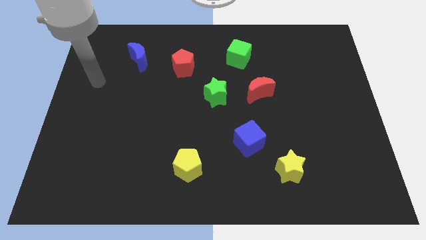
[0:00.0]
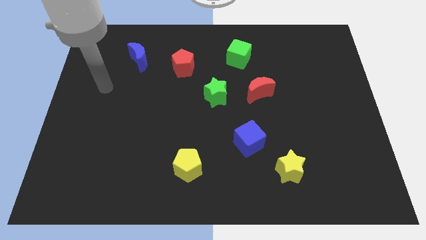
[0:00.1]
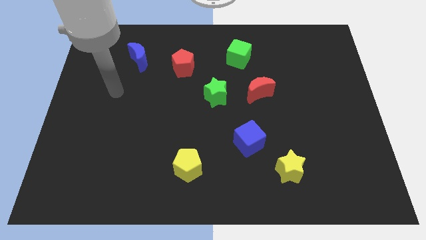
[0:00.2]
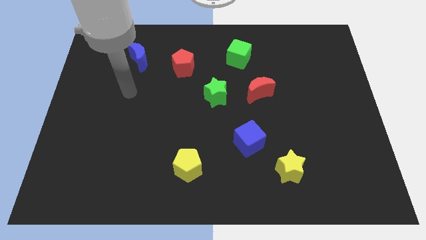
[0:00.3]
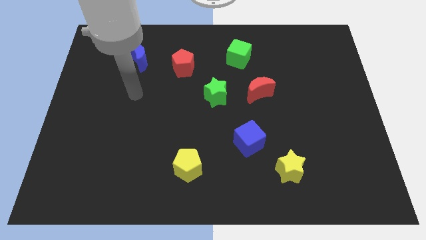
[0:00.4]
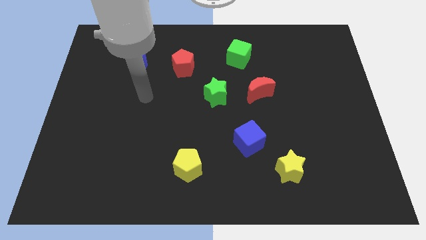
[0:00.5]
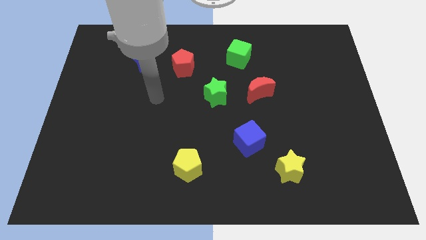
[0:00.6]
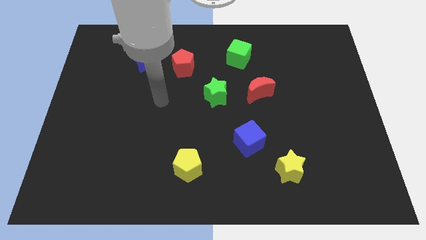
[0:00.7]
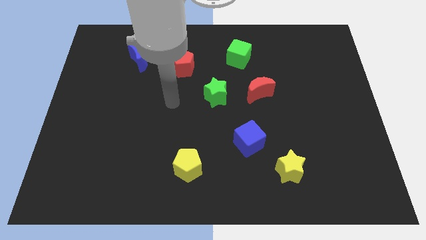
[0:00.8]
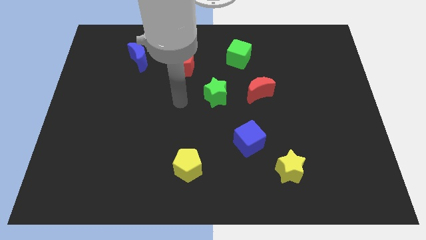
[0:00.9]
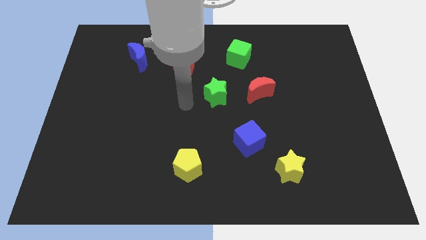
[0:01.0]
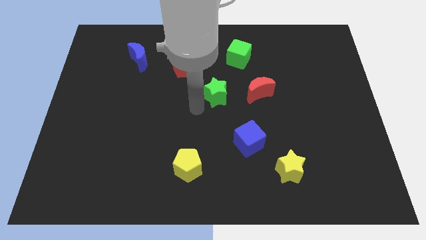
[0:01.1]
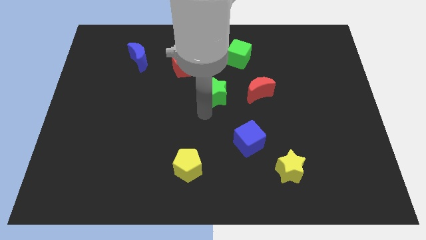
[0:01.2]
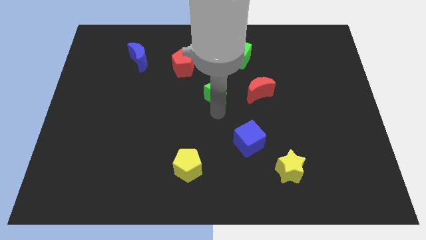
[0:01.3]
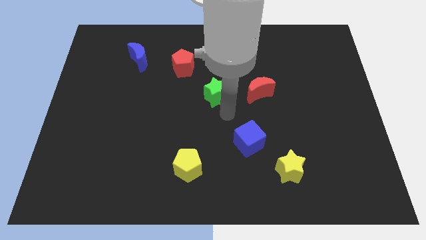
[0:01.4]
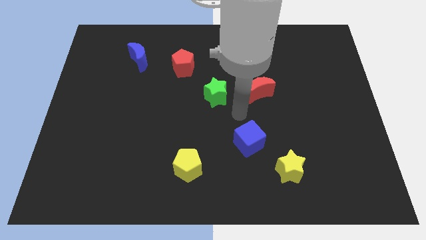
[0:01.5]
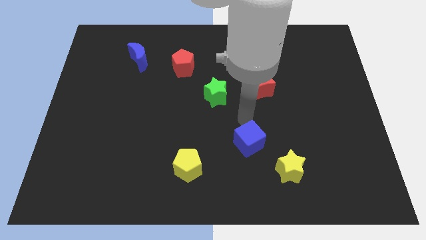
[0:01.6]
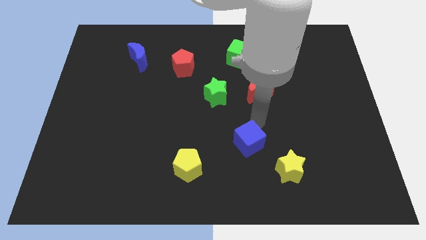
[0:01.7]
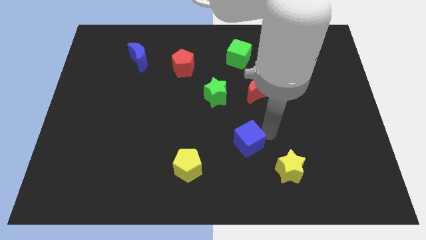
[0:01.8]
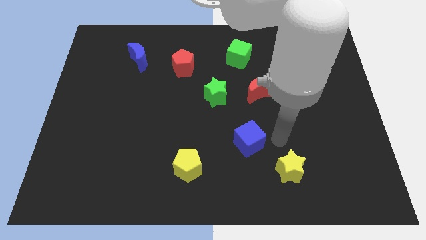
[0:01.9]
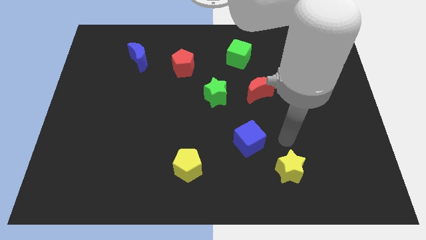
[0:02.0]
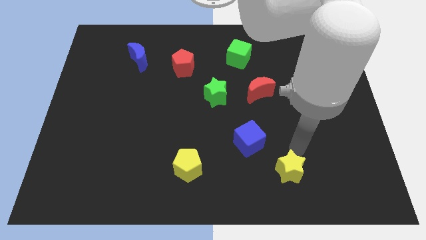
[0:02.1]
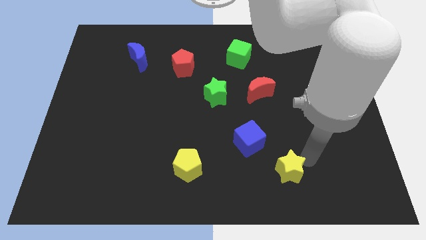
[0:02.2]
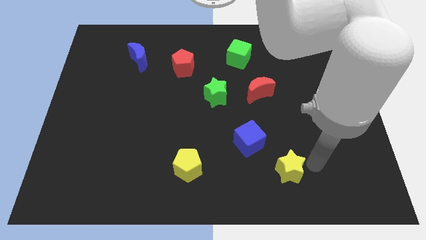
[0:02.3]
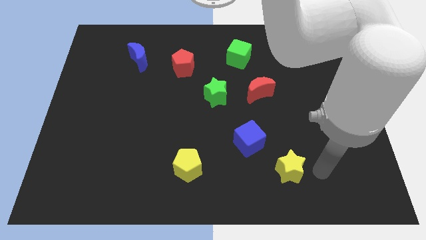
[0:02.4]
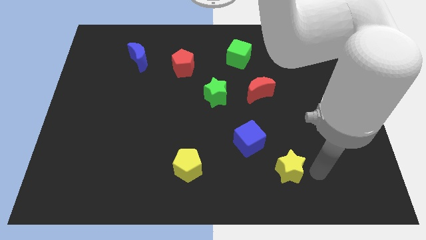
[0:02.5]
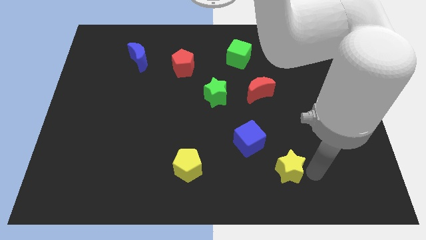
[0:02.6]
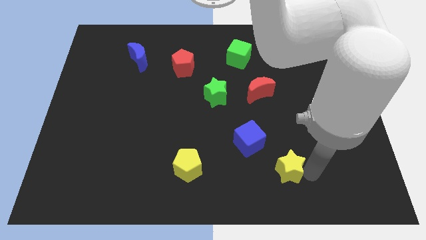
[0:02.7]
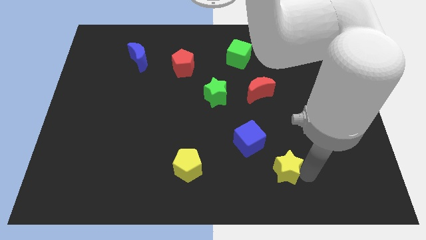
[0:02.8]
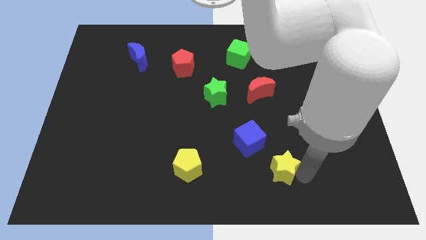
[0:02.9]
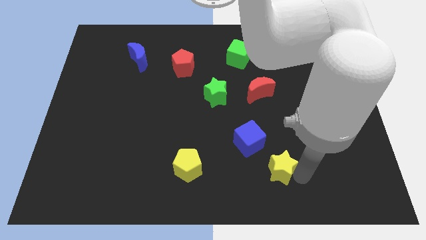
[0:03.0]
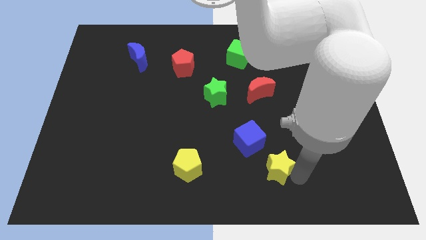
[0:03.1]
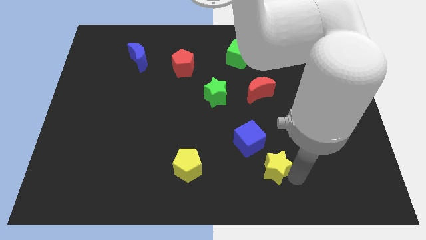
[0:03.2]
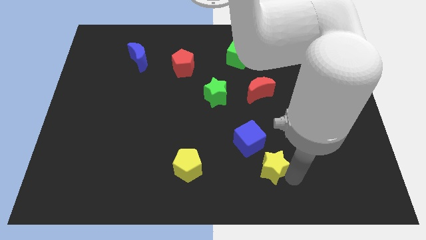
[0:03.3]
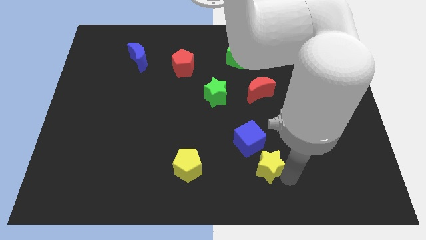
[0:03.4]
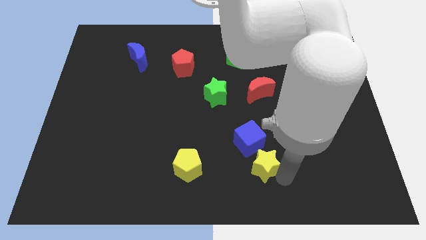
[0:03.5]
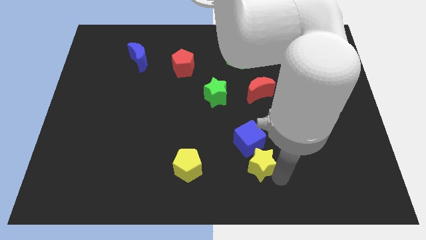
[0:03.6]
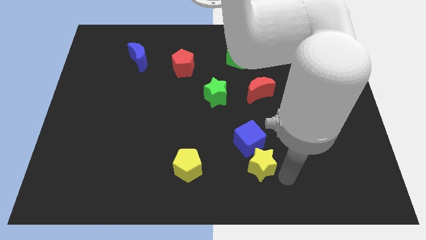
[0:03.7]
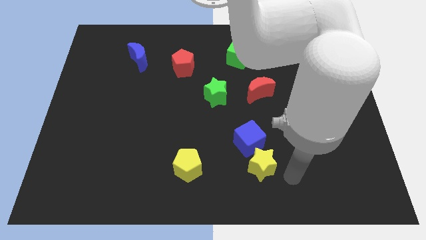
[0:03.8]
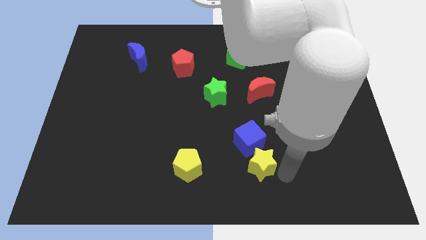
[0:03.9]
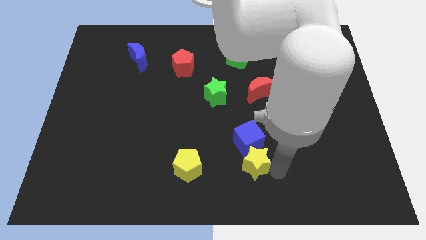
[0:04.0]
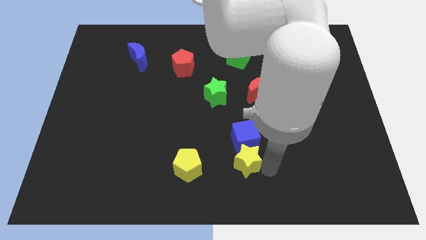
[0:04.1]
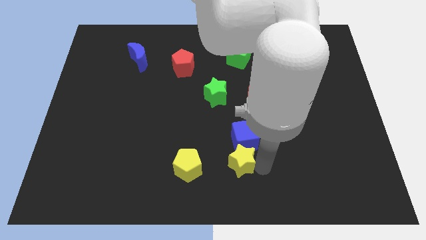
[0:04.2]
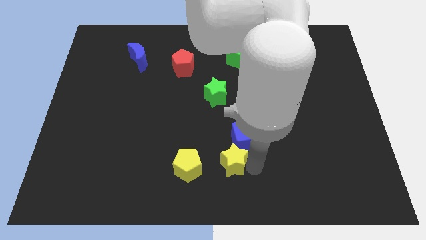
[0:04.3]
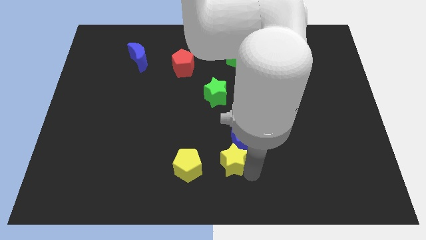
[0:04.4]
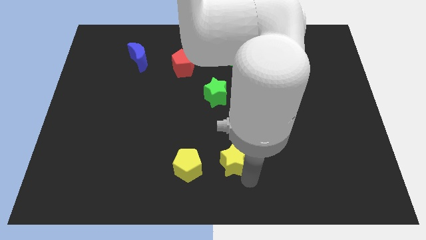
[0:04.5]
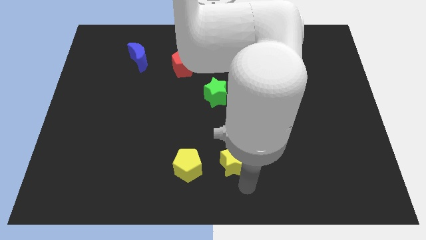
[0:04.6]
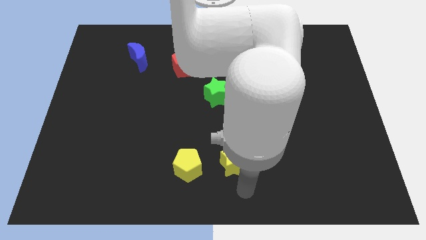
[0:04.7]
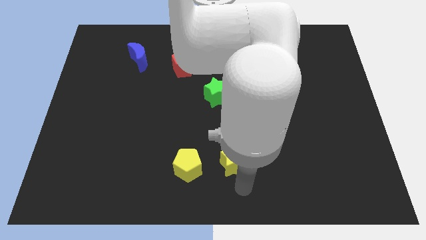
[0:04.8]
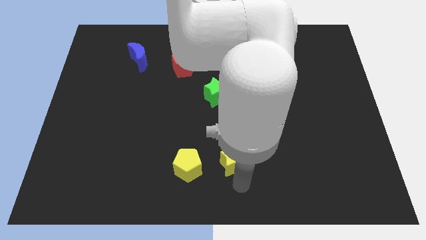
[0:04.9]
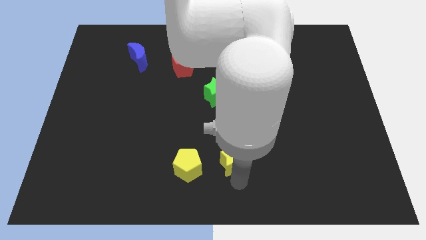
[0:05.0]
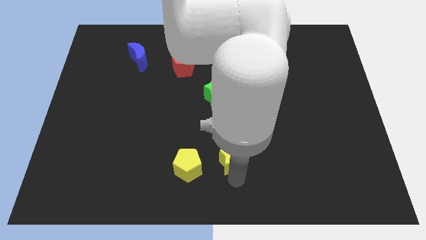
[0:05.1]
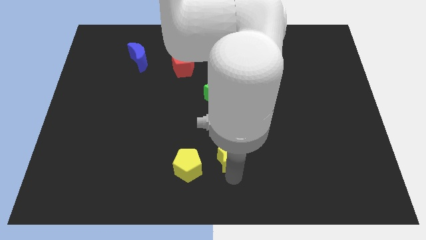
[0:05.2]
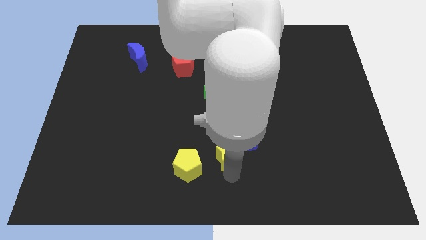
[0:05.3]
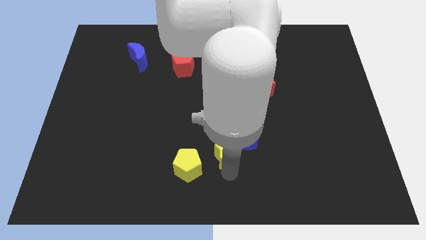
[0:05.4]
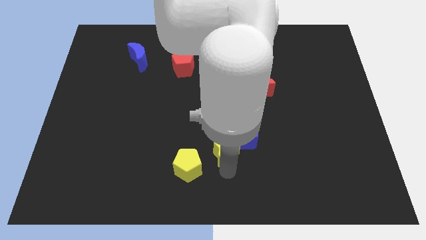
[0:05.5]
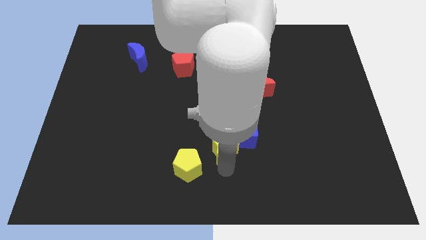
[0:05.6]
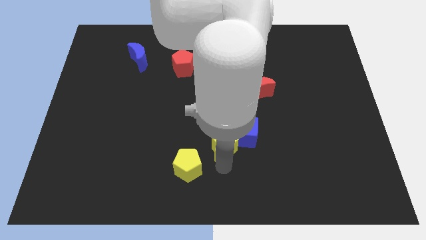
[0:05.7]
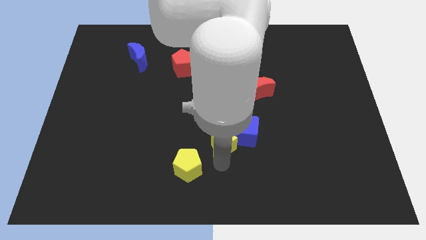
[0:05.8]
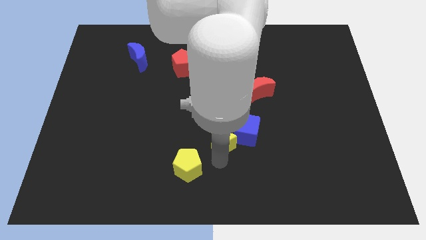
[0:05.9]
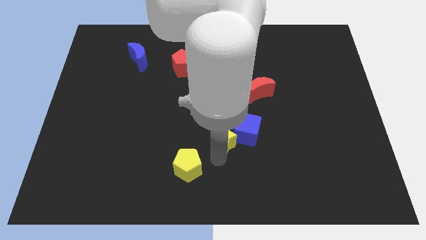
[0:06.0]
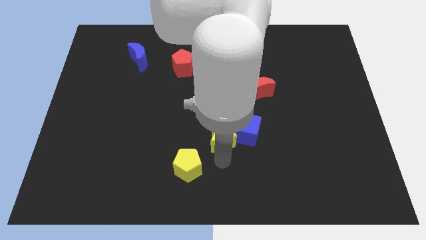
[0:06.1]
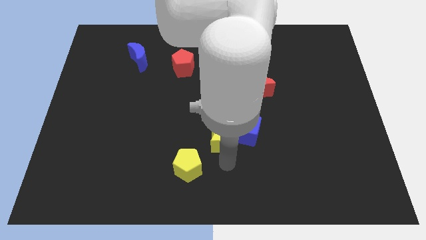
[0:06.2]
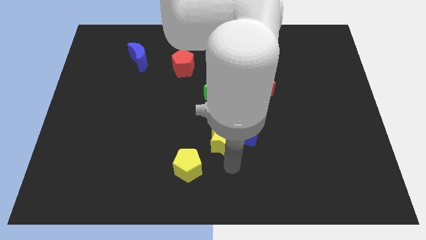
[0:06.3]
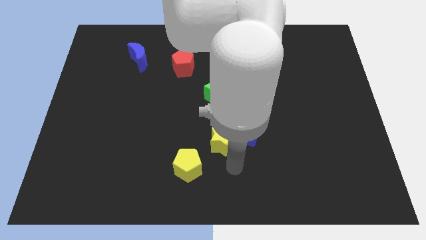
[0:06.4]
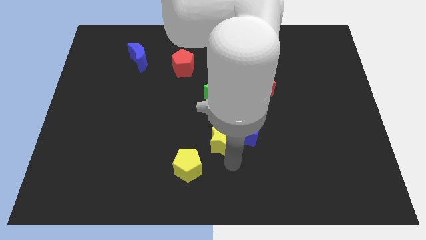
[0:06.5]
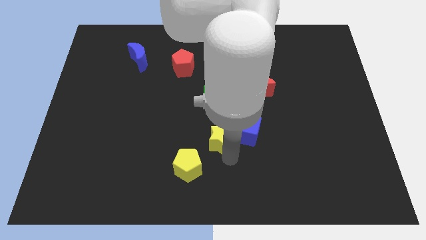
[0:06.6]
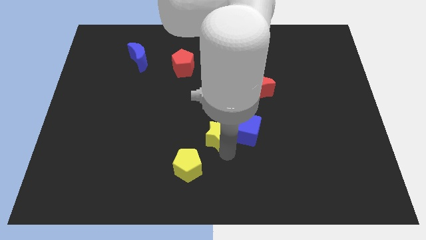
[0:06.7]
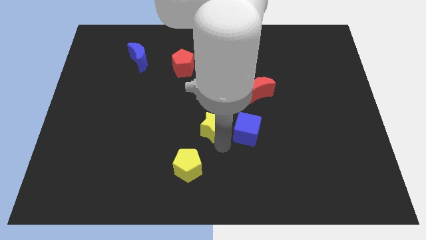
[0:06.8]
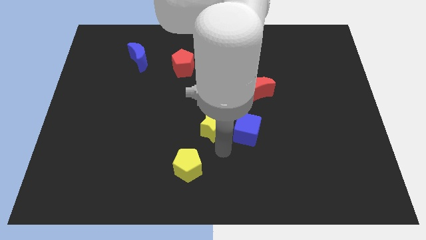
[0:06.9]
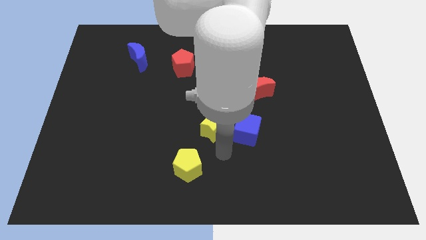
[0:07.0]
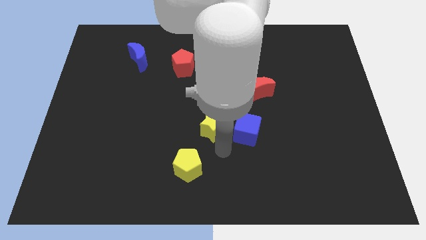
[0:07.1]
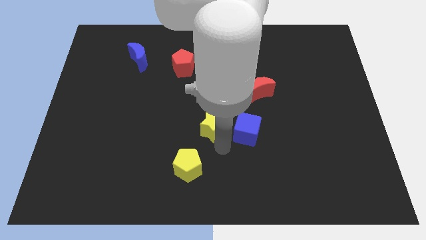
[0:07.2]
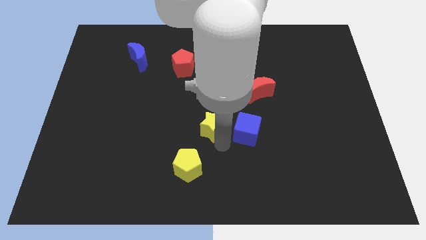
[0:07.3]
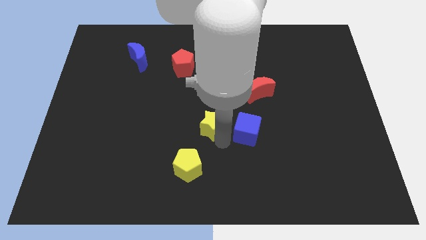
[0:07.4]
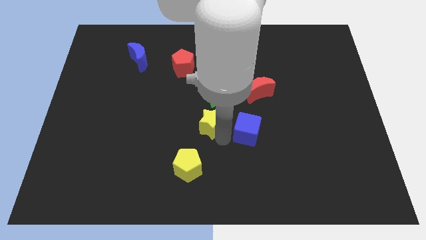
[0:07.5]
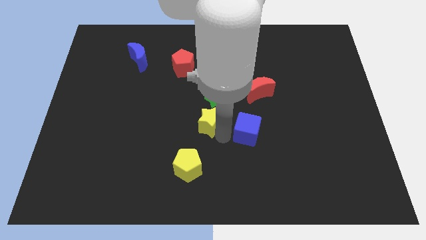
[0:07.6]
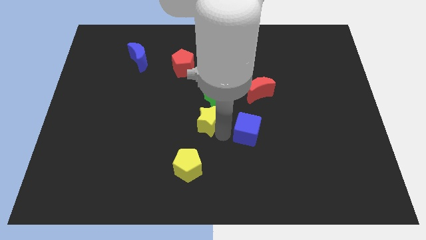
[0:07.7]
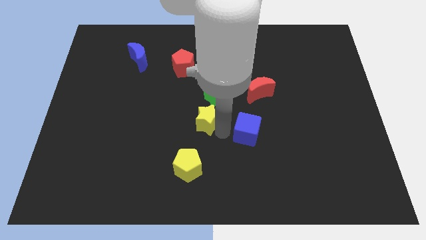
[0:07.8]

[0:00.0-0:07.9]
move the yellow star upwards and left diagonally

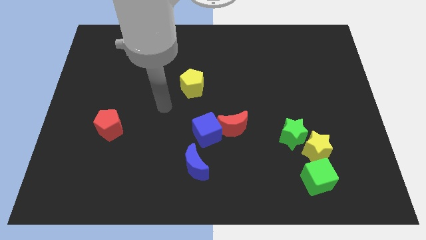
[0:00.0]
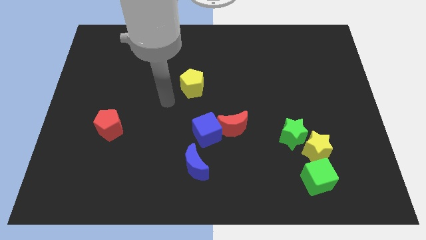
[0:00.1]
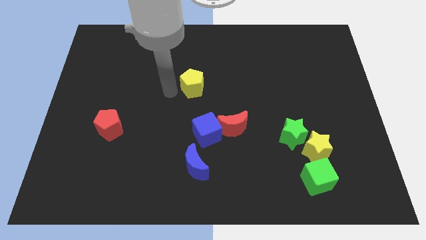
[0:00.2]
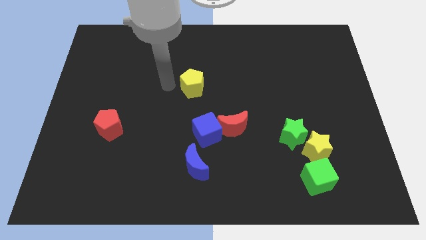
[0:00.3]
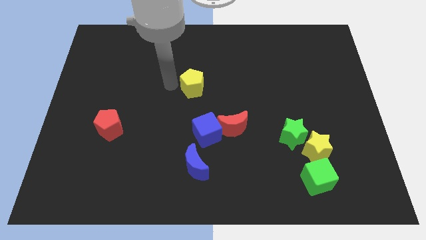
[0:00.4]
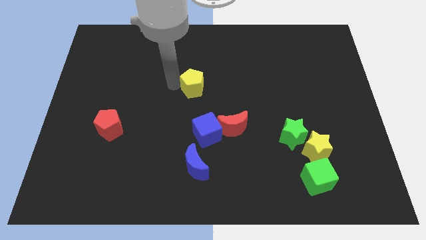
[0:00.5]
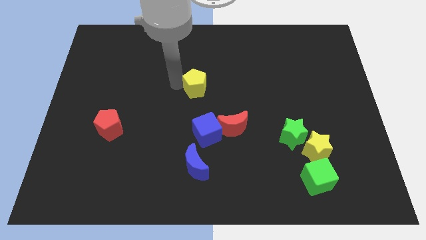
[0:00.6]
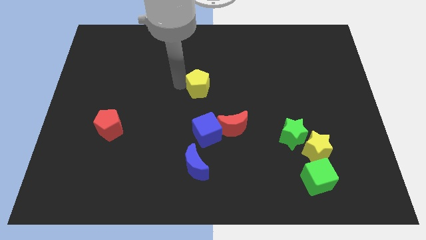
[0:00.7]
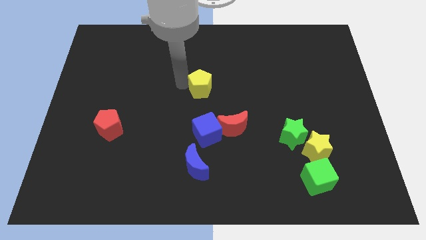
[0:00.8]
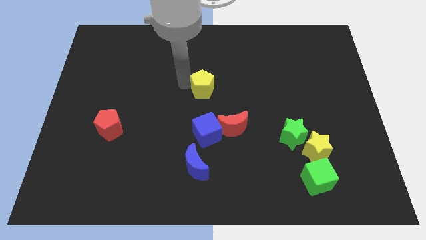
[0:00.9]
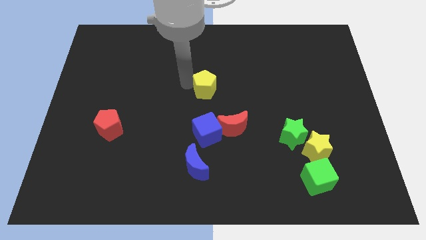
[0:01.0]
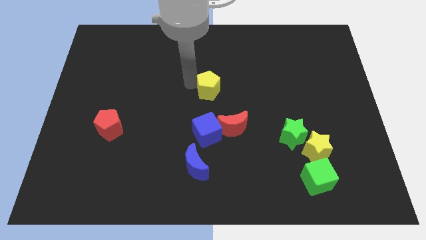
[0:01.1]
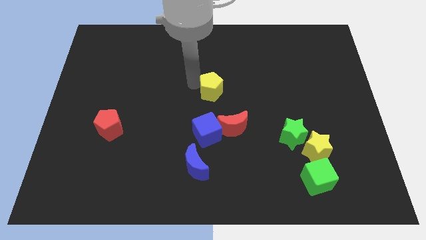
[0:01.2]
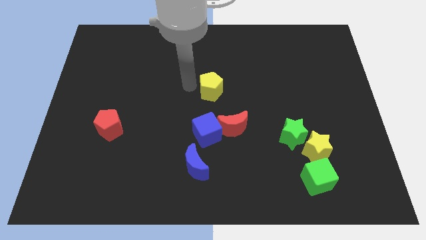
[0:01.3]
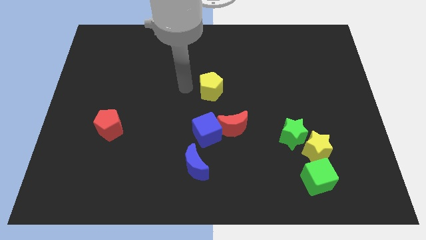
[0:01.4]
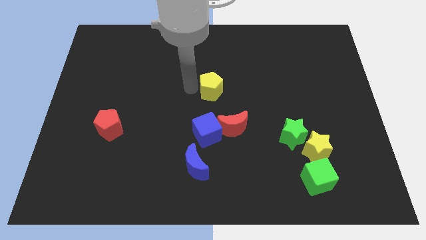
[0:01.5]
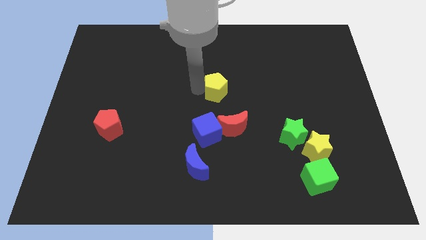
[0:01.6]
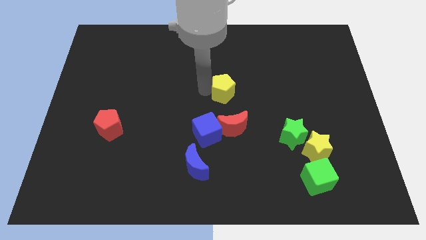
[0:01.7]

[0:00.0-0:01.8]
slightly push the yellow pentagon right
